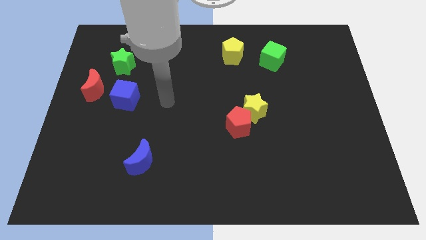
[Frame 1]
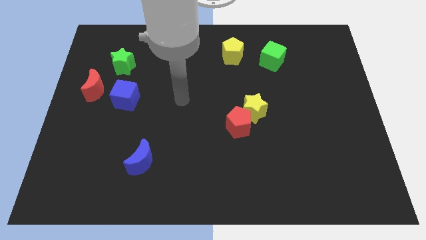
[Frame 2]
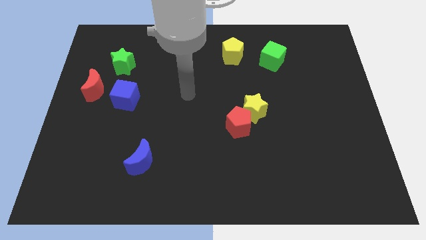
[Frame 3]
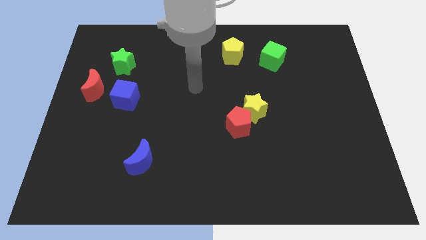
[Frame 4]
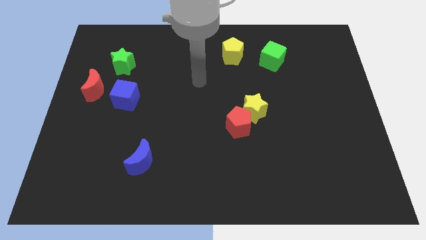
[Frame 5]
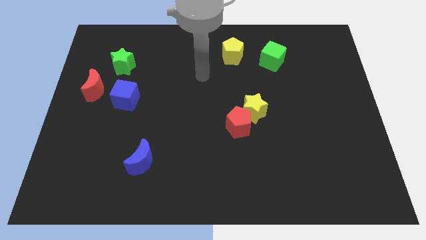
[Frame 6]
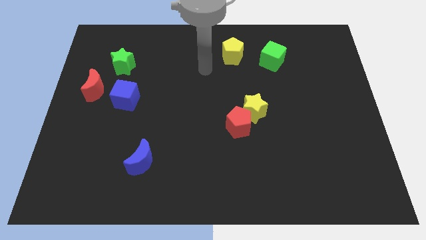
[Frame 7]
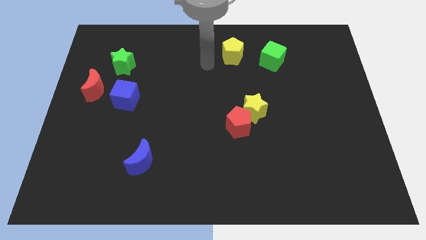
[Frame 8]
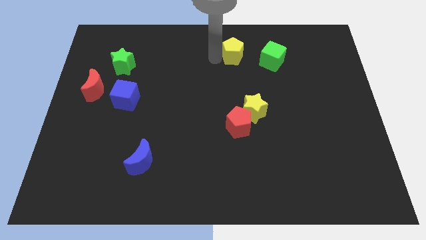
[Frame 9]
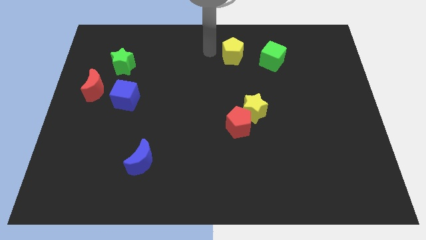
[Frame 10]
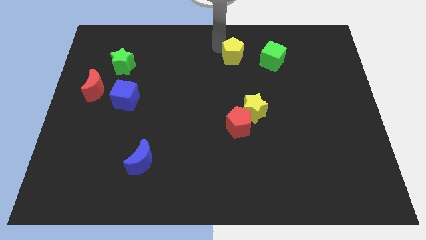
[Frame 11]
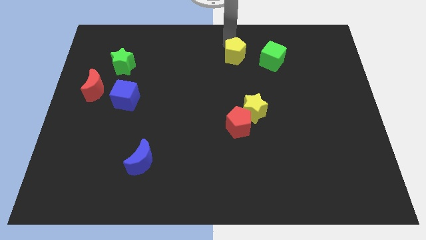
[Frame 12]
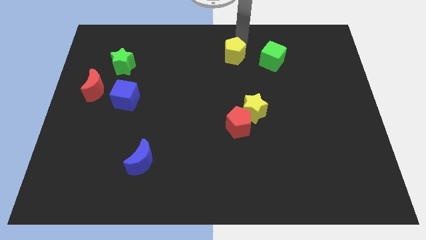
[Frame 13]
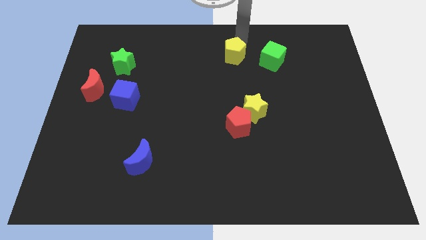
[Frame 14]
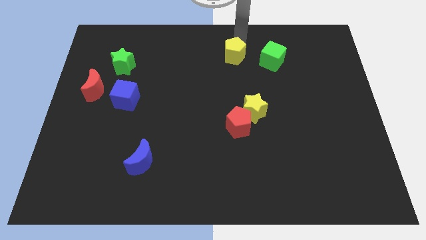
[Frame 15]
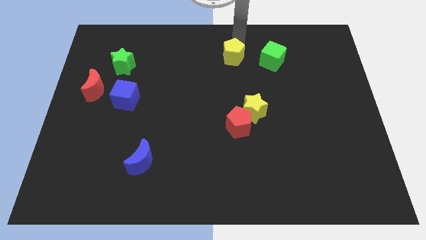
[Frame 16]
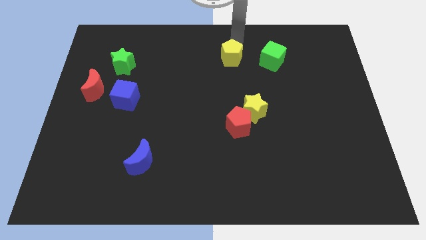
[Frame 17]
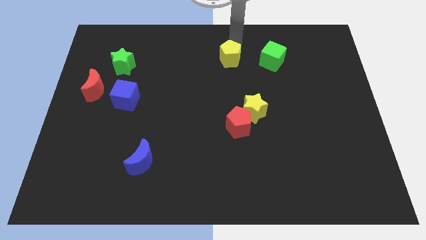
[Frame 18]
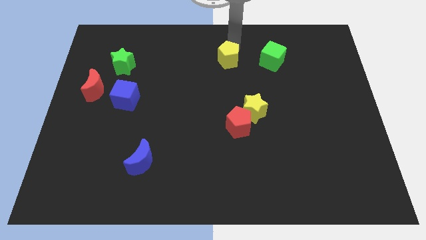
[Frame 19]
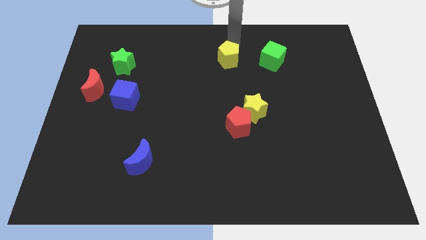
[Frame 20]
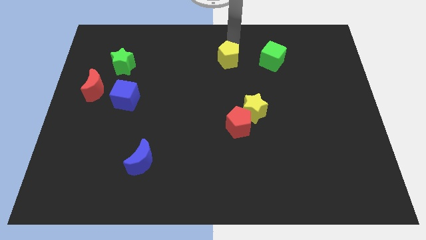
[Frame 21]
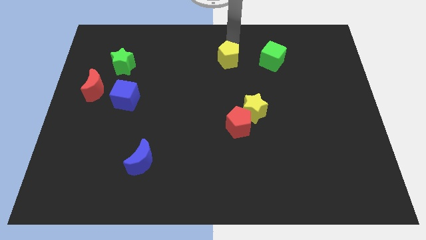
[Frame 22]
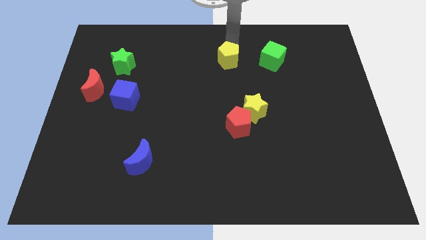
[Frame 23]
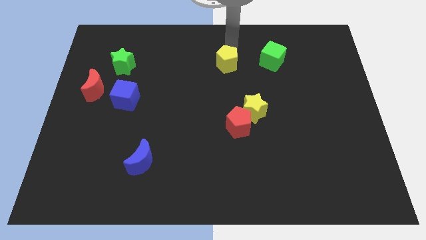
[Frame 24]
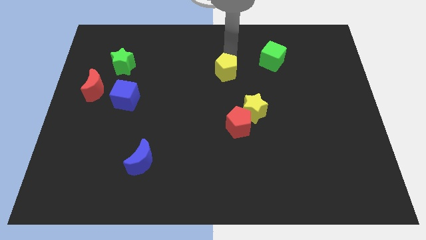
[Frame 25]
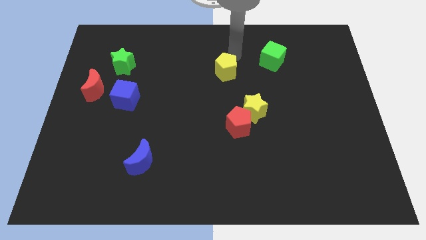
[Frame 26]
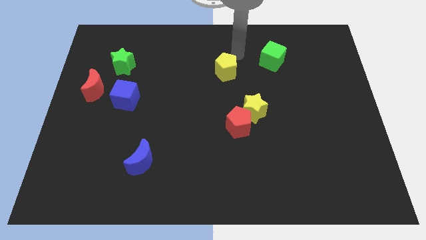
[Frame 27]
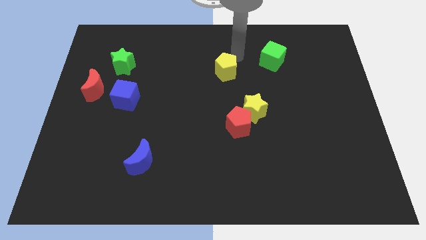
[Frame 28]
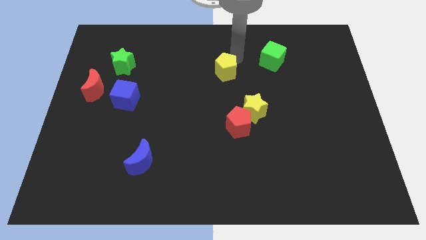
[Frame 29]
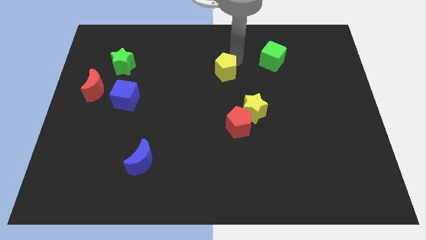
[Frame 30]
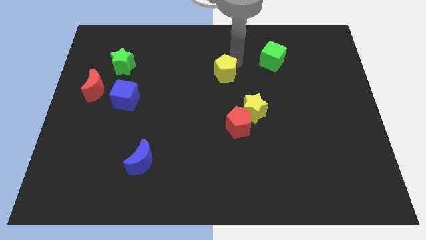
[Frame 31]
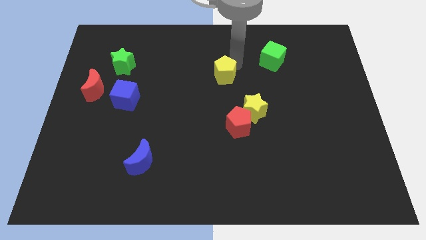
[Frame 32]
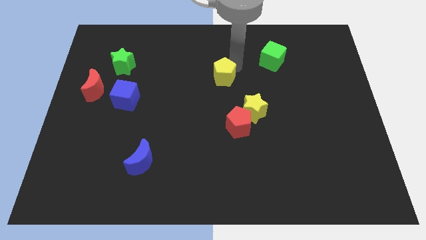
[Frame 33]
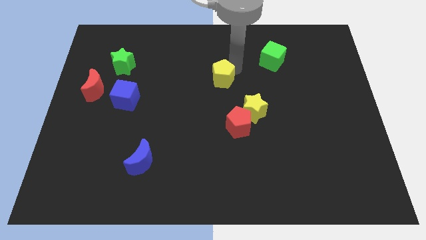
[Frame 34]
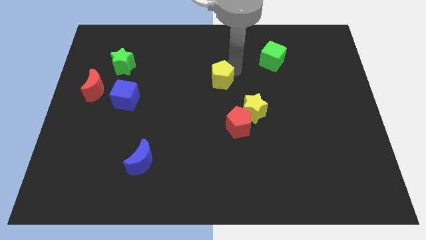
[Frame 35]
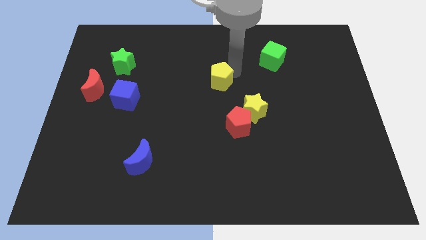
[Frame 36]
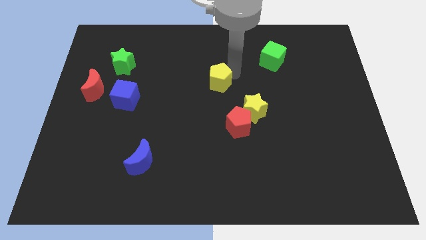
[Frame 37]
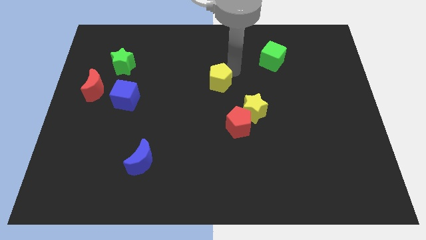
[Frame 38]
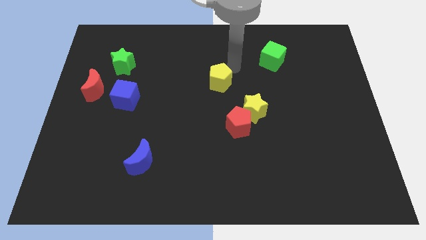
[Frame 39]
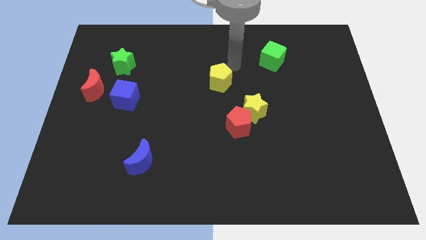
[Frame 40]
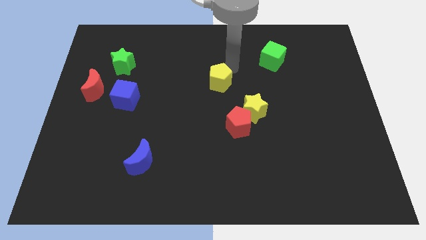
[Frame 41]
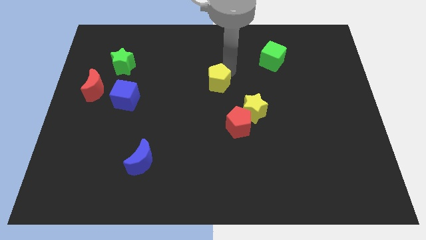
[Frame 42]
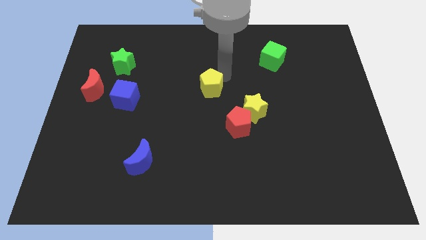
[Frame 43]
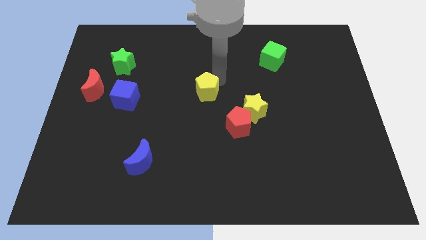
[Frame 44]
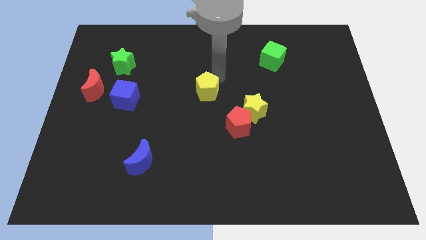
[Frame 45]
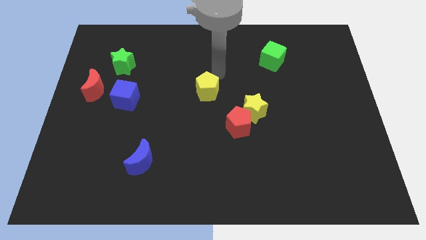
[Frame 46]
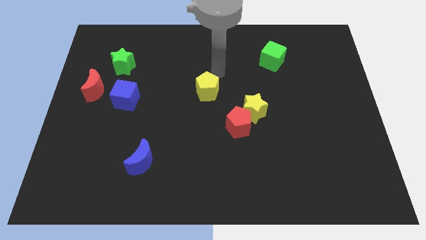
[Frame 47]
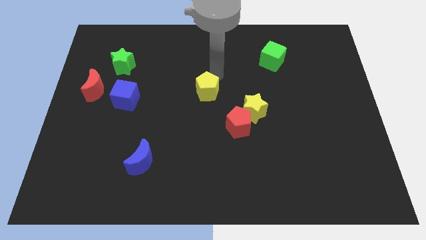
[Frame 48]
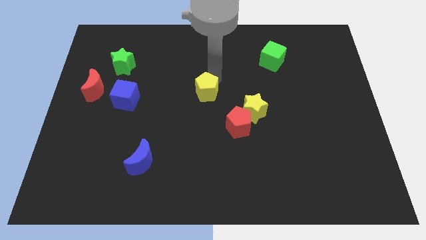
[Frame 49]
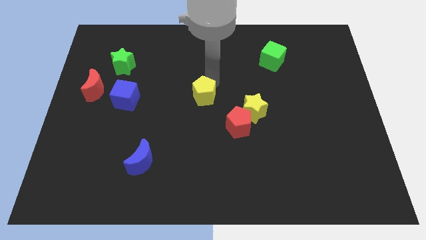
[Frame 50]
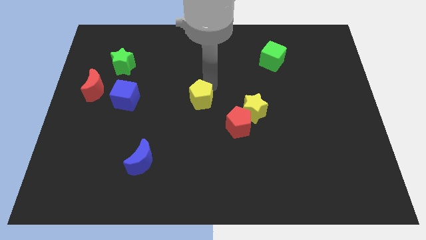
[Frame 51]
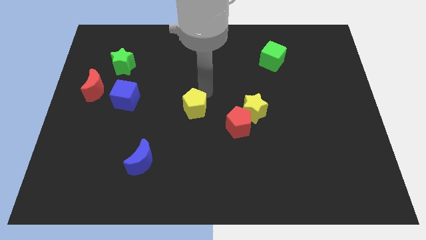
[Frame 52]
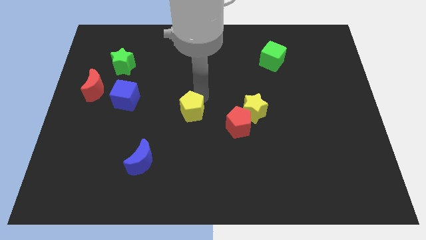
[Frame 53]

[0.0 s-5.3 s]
put the yellow pentagon just left of the red pentagon

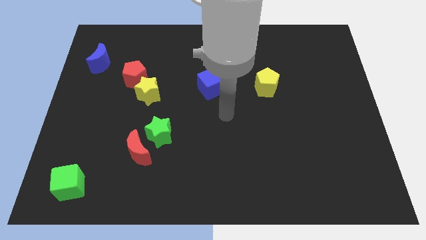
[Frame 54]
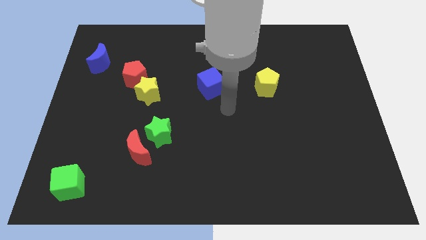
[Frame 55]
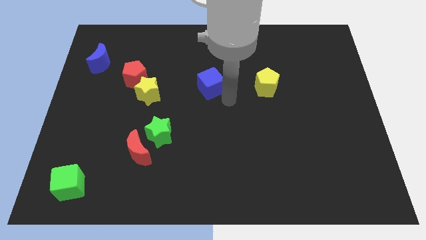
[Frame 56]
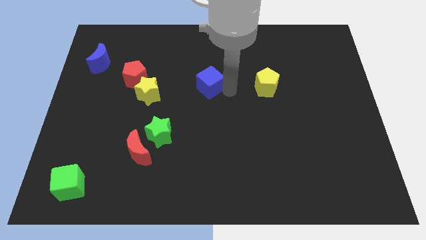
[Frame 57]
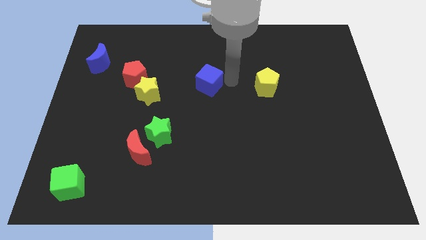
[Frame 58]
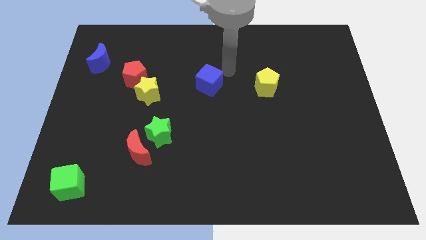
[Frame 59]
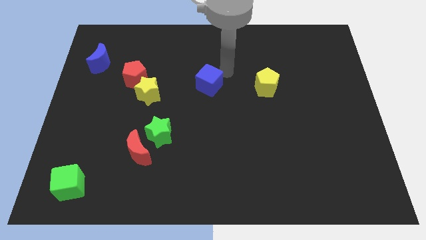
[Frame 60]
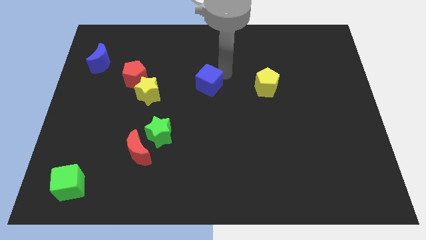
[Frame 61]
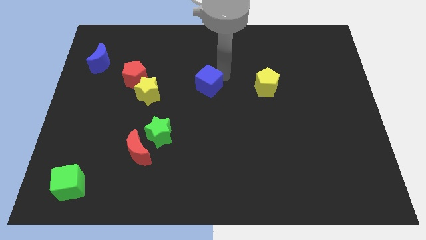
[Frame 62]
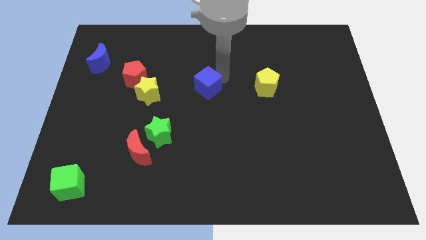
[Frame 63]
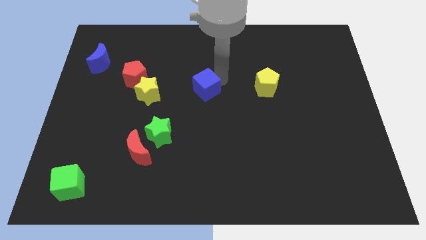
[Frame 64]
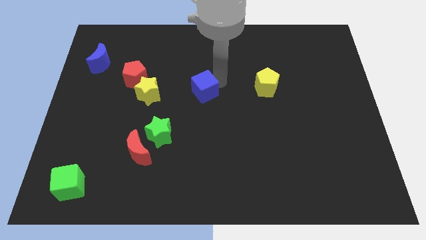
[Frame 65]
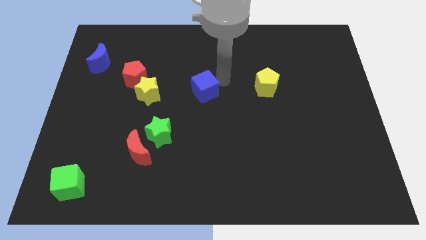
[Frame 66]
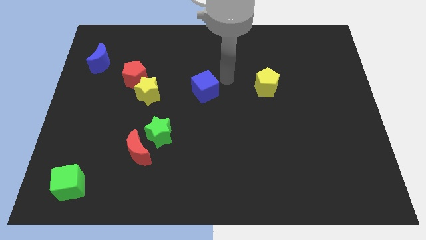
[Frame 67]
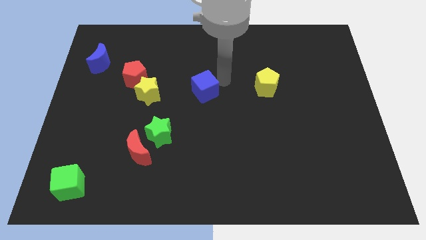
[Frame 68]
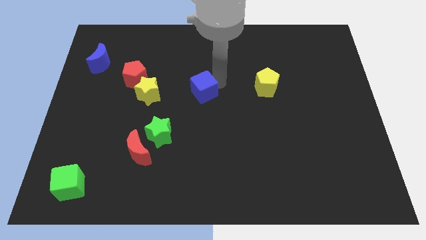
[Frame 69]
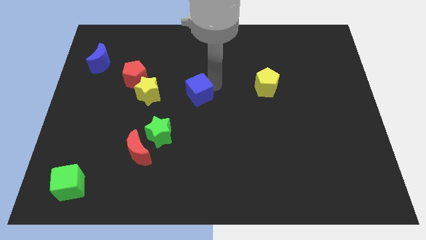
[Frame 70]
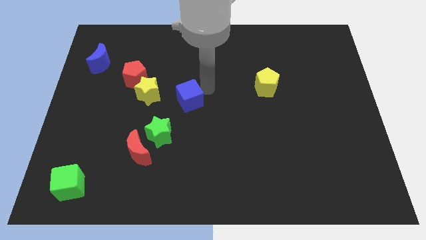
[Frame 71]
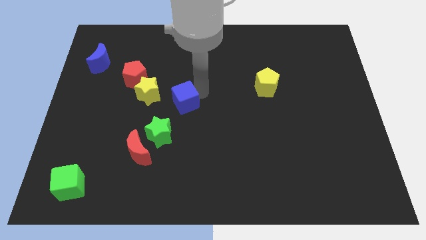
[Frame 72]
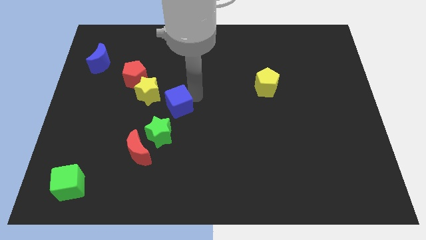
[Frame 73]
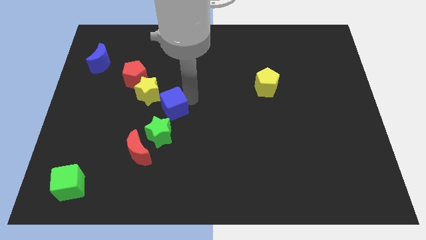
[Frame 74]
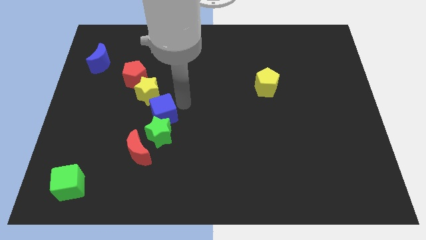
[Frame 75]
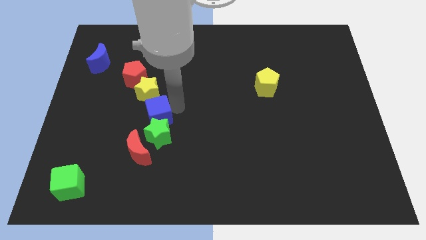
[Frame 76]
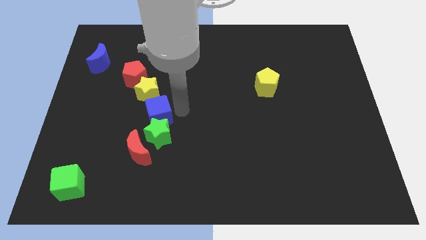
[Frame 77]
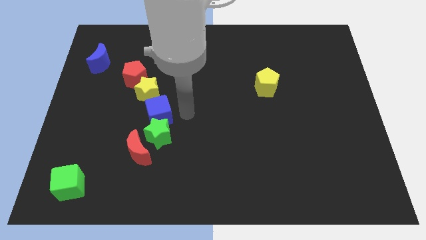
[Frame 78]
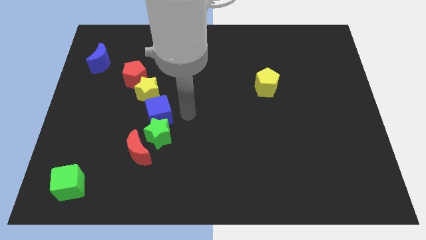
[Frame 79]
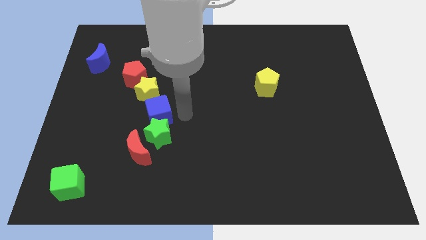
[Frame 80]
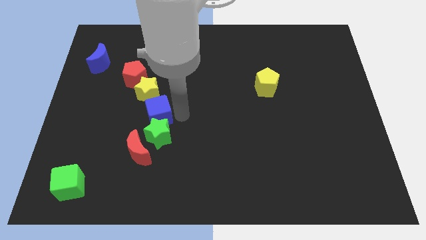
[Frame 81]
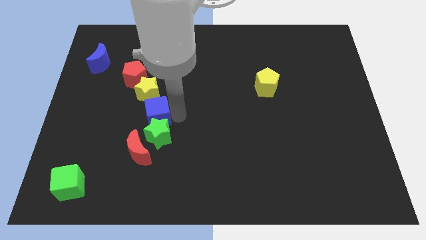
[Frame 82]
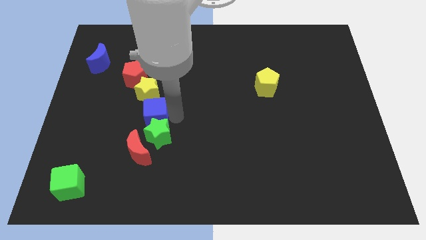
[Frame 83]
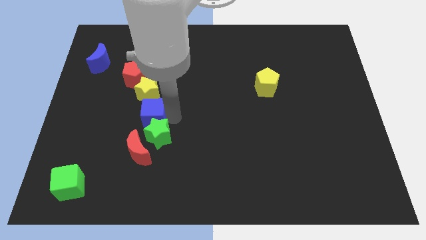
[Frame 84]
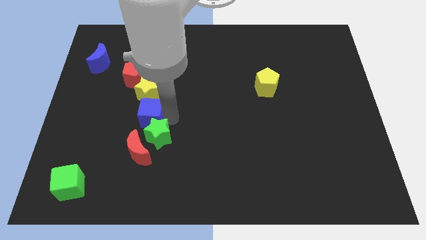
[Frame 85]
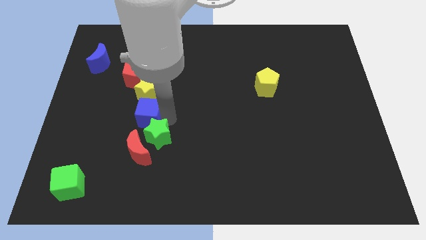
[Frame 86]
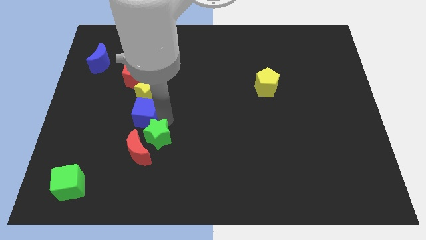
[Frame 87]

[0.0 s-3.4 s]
slide the blue cube to the bottom left of the yellow star
